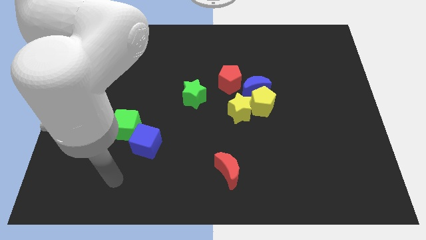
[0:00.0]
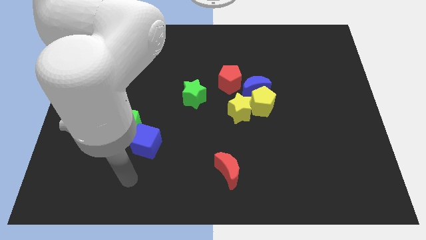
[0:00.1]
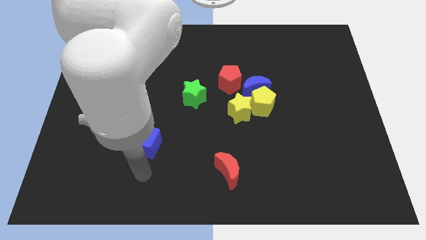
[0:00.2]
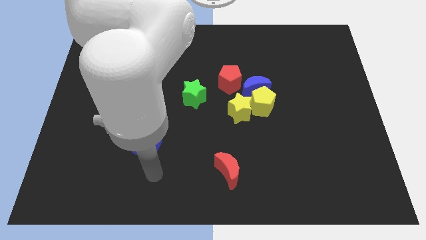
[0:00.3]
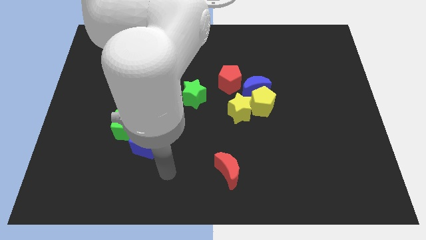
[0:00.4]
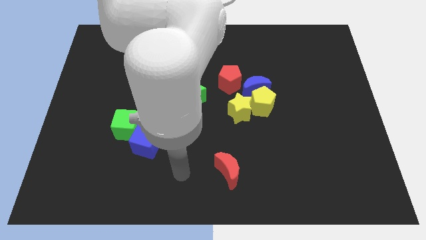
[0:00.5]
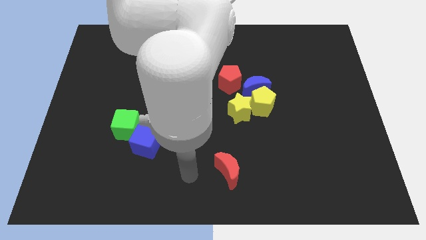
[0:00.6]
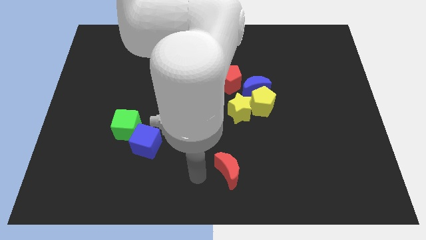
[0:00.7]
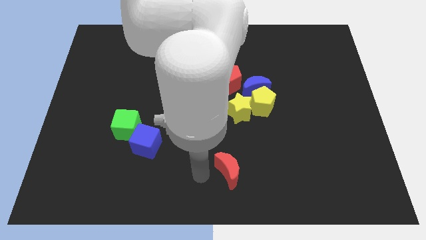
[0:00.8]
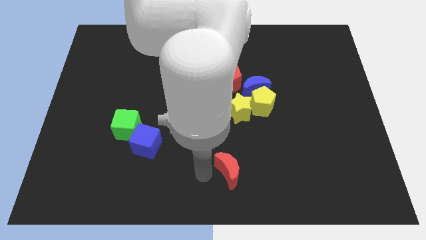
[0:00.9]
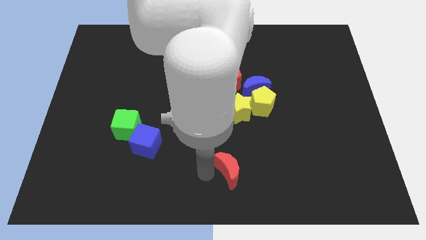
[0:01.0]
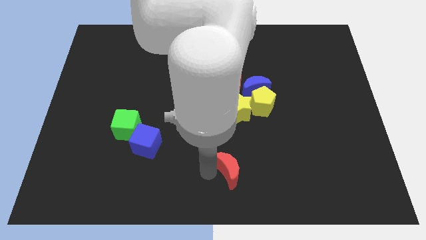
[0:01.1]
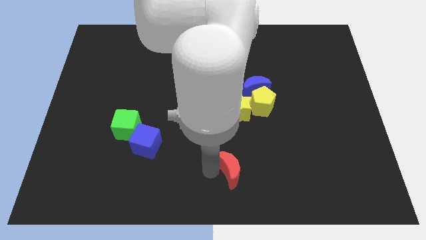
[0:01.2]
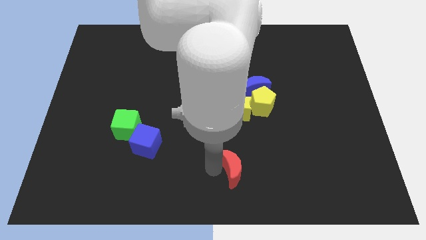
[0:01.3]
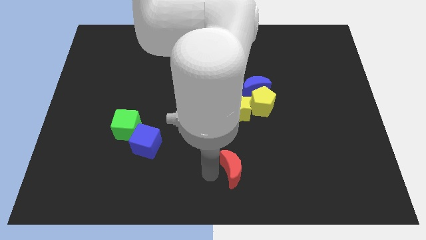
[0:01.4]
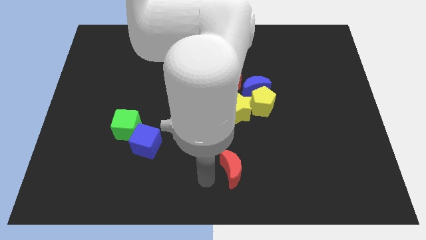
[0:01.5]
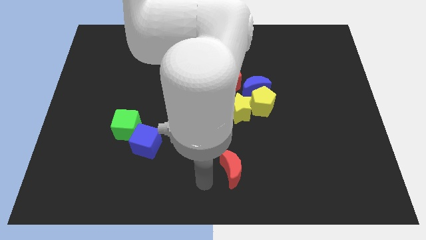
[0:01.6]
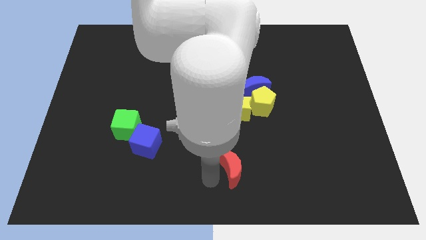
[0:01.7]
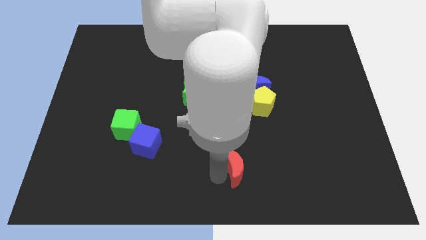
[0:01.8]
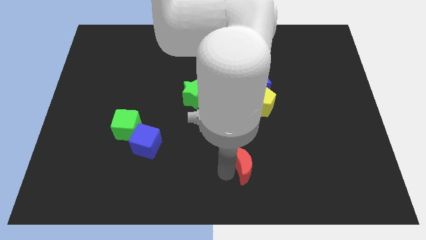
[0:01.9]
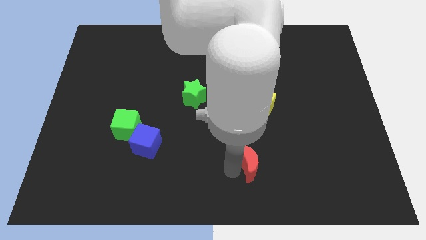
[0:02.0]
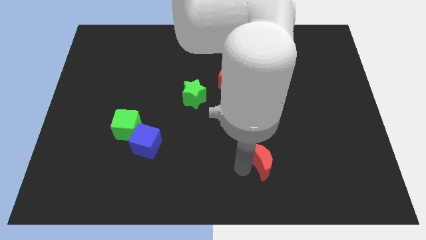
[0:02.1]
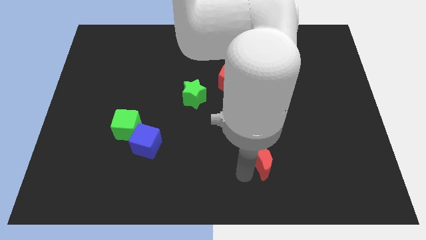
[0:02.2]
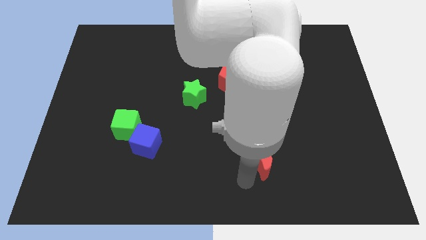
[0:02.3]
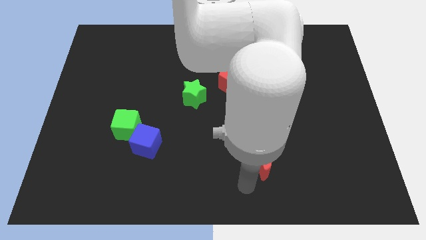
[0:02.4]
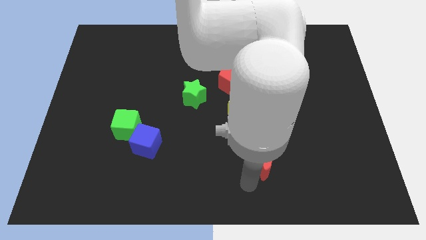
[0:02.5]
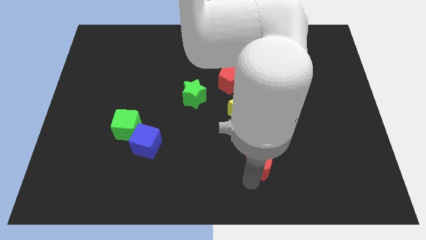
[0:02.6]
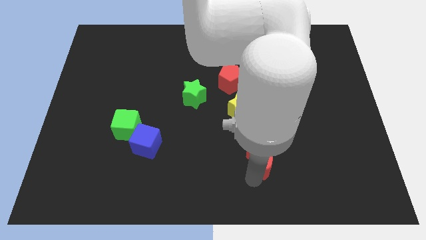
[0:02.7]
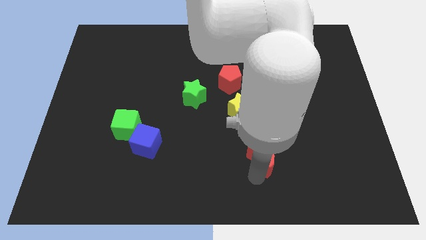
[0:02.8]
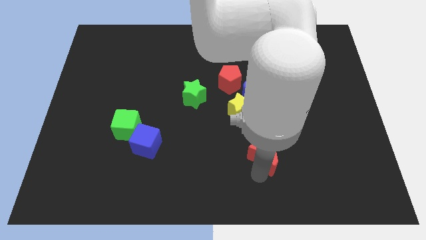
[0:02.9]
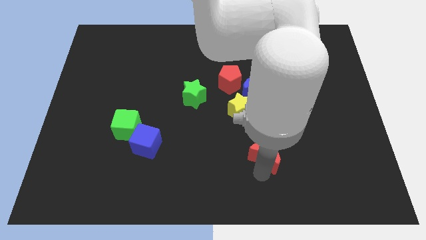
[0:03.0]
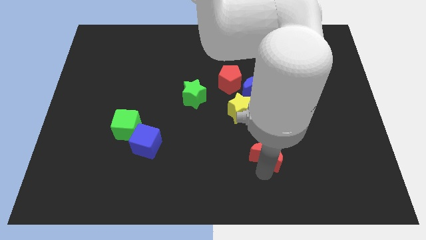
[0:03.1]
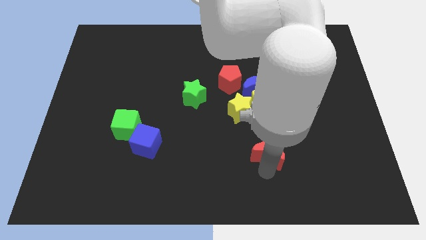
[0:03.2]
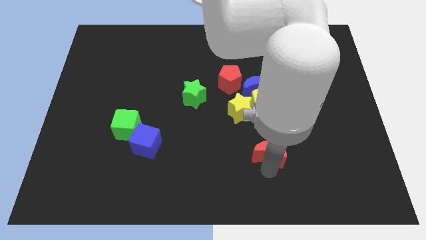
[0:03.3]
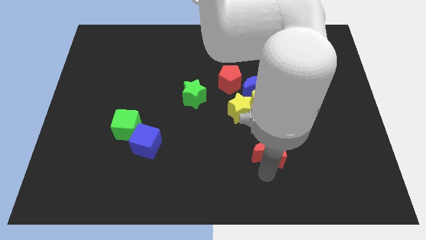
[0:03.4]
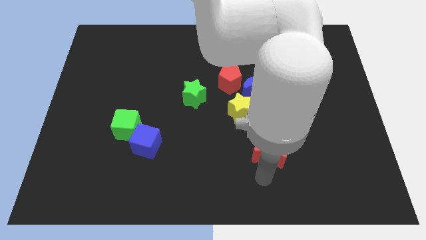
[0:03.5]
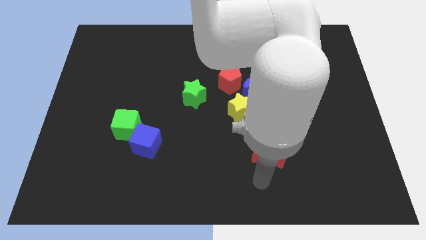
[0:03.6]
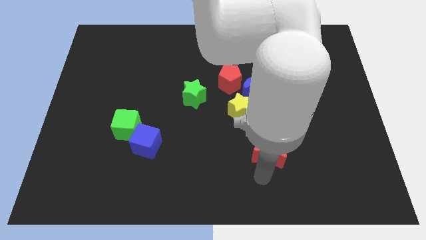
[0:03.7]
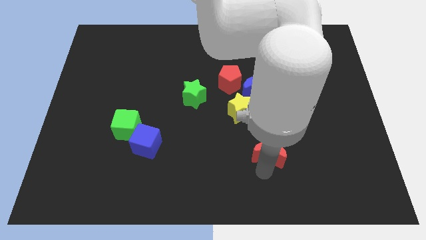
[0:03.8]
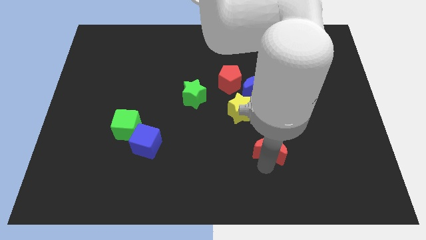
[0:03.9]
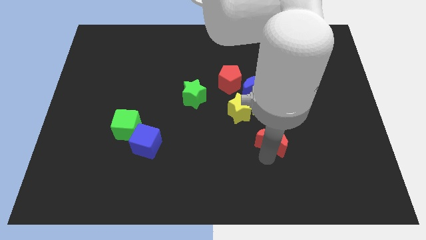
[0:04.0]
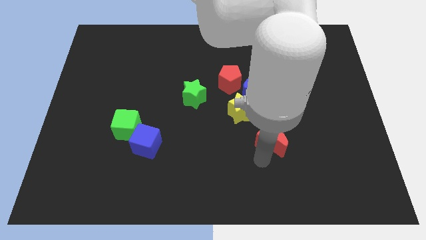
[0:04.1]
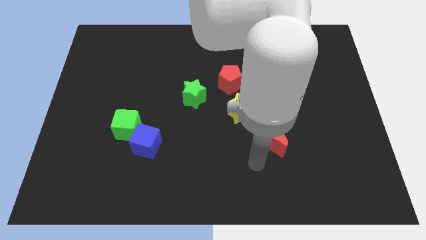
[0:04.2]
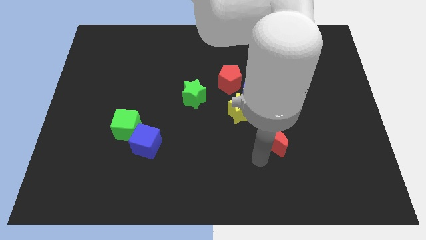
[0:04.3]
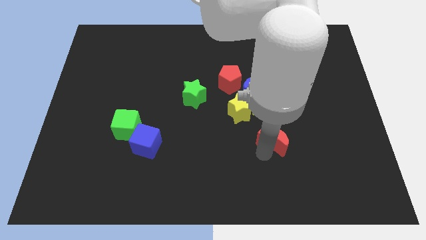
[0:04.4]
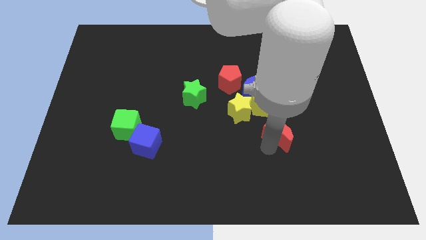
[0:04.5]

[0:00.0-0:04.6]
slide the red moon diagonally down and to the right of the yellow pentagon

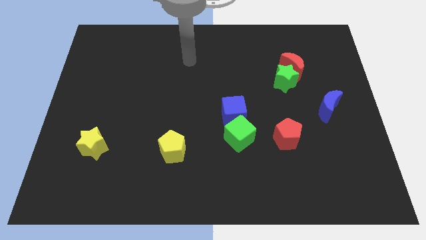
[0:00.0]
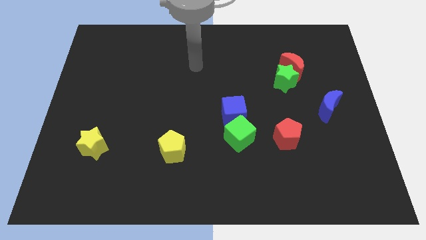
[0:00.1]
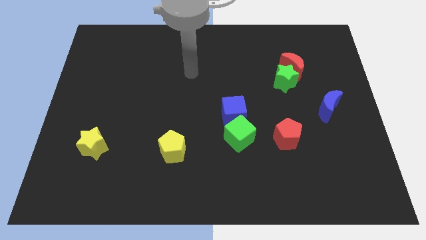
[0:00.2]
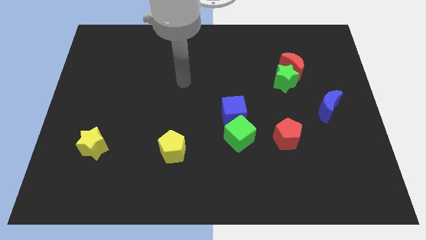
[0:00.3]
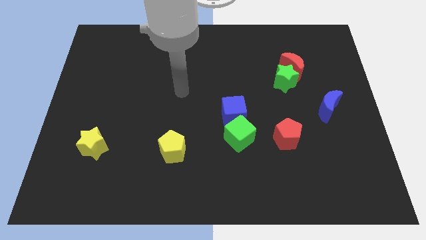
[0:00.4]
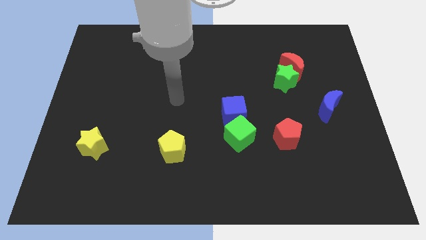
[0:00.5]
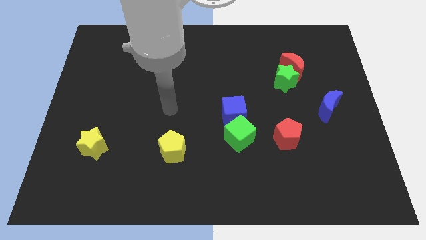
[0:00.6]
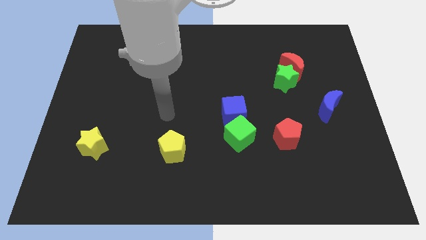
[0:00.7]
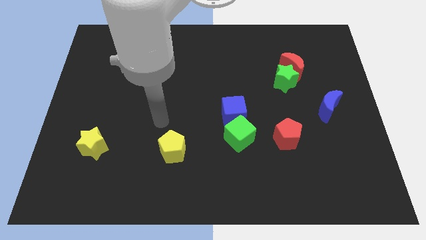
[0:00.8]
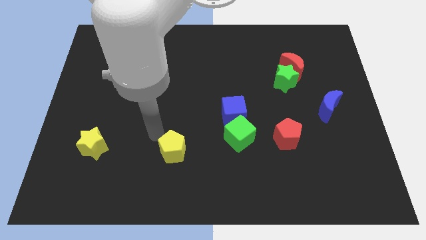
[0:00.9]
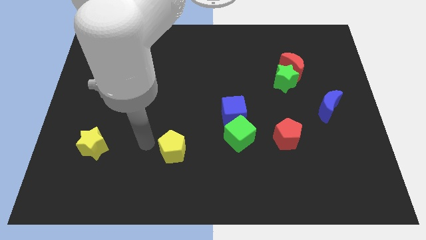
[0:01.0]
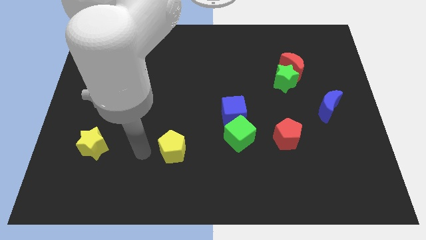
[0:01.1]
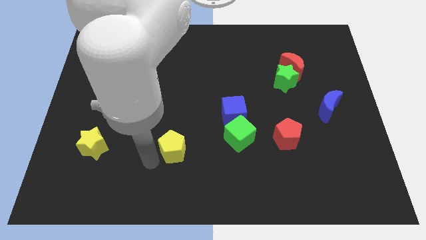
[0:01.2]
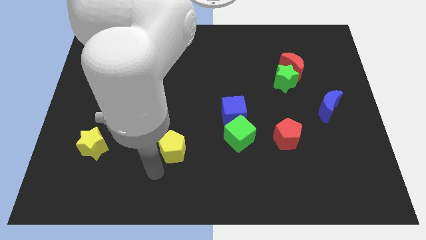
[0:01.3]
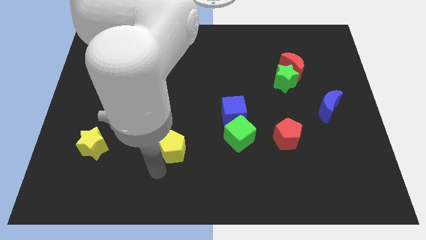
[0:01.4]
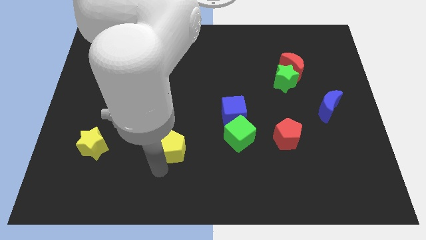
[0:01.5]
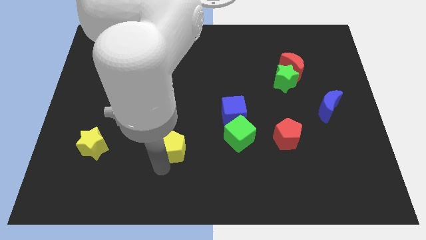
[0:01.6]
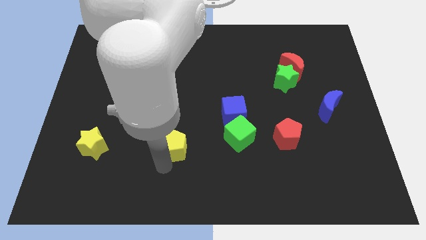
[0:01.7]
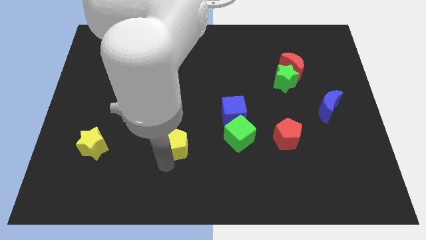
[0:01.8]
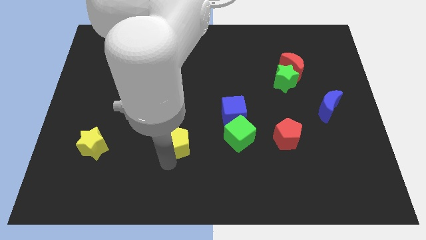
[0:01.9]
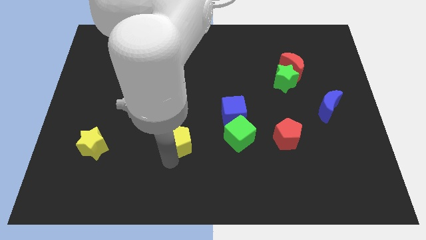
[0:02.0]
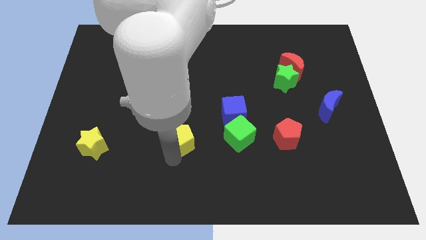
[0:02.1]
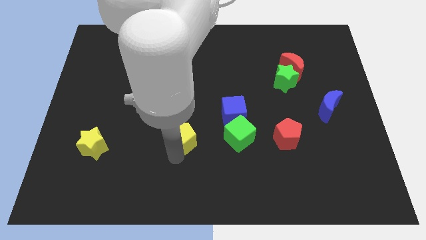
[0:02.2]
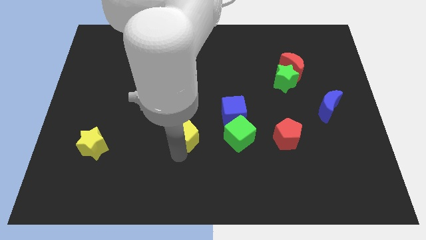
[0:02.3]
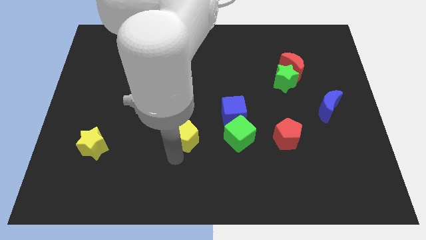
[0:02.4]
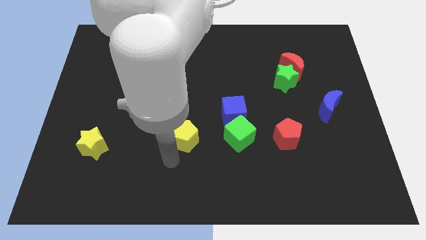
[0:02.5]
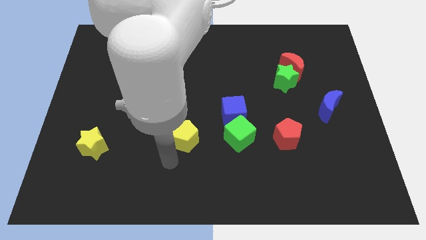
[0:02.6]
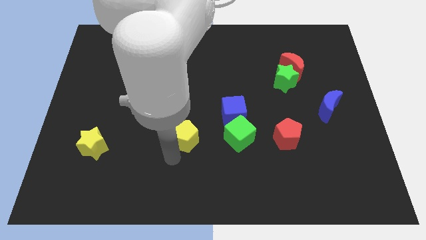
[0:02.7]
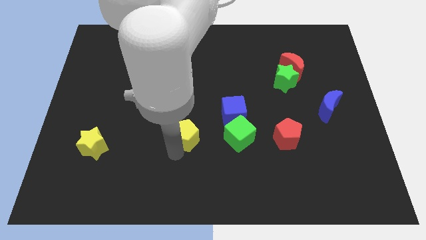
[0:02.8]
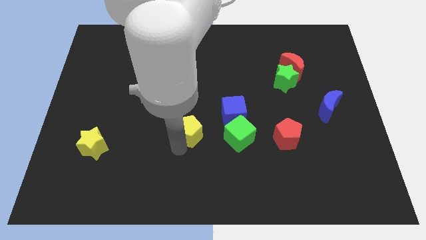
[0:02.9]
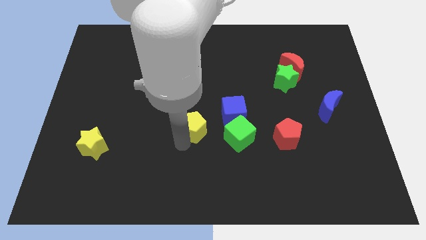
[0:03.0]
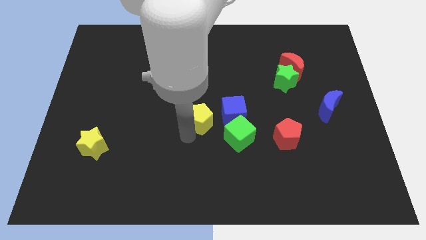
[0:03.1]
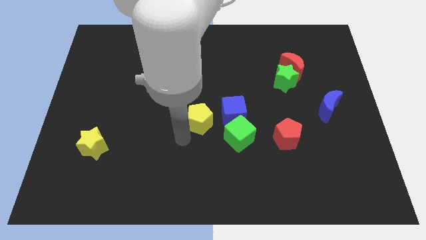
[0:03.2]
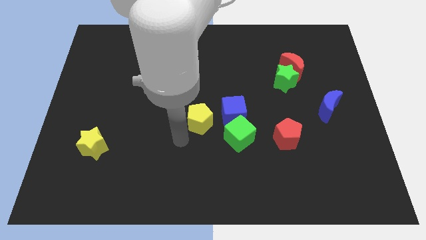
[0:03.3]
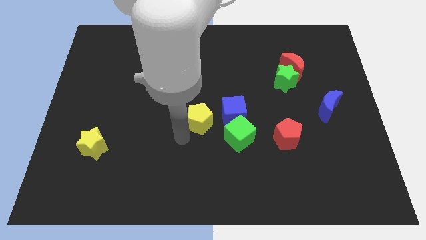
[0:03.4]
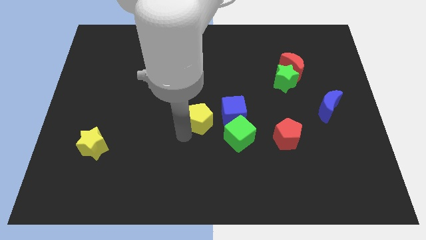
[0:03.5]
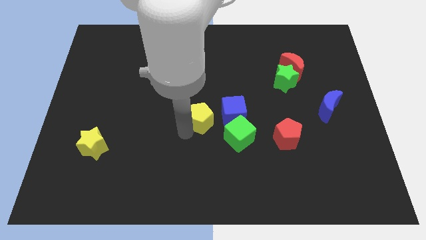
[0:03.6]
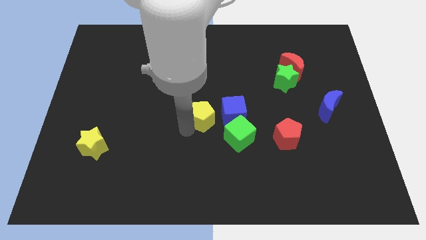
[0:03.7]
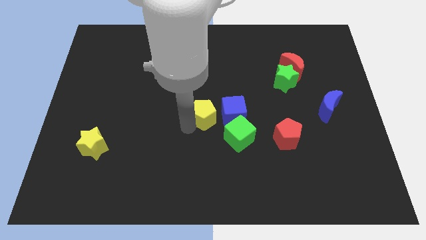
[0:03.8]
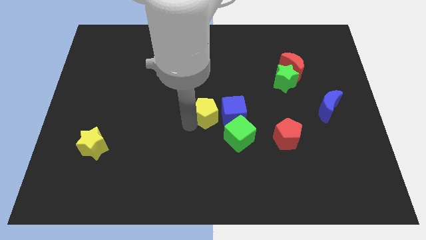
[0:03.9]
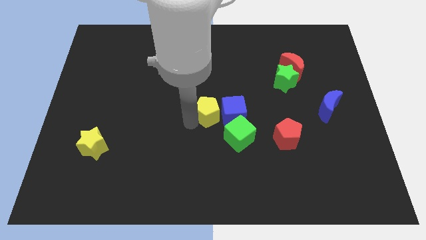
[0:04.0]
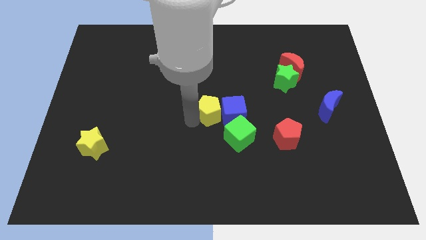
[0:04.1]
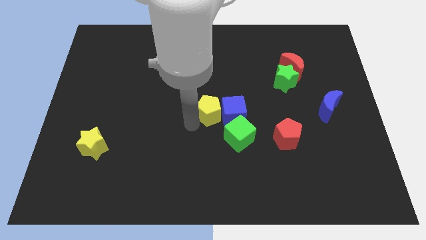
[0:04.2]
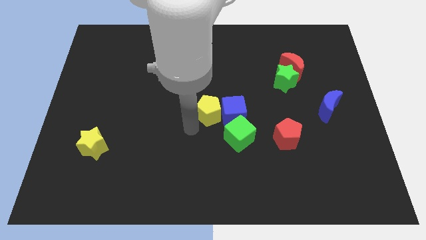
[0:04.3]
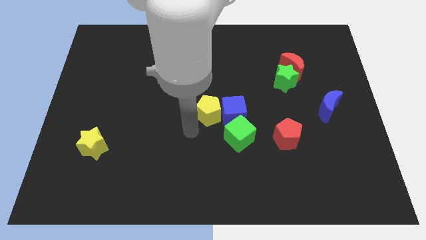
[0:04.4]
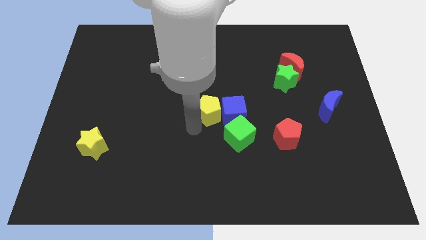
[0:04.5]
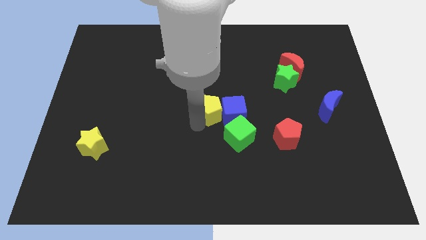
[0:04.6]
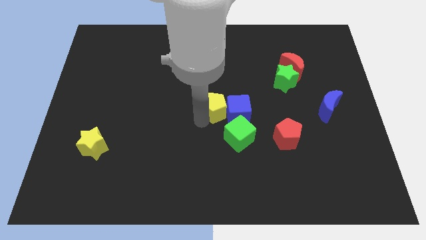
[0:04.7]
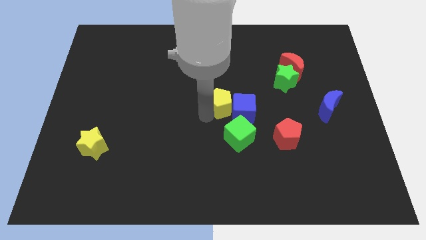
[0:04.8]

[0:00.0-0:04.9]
slide the yellow pentagon to the top side of the green cube
